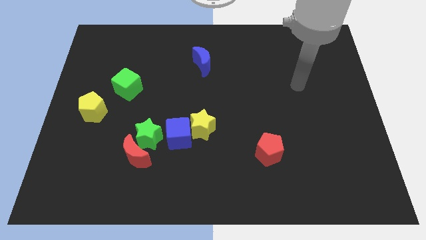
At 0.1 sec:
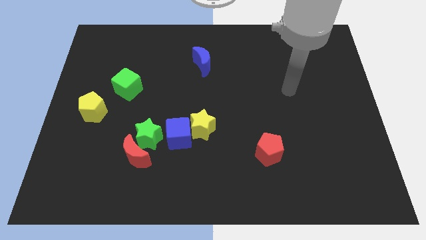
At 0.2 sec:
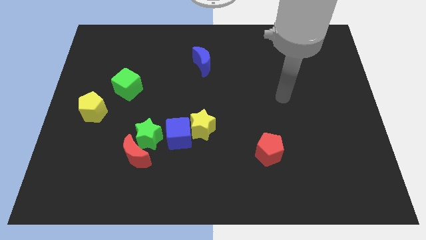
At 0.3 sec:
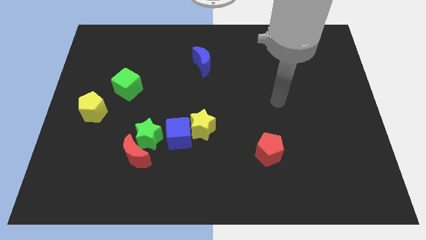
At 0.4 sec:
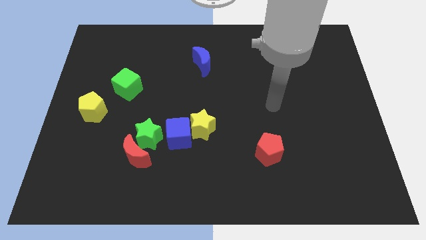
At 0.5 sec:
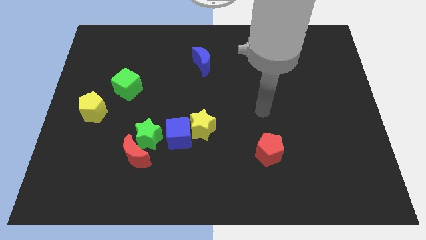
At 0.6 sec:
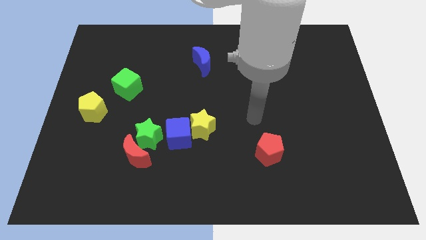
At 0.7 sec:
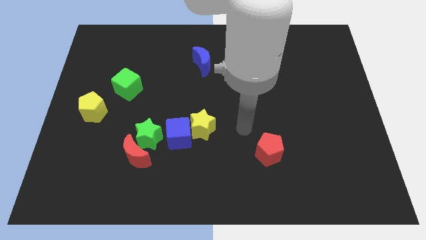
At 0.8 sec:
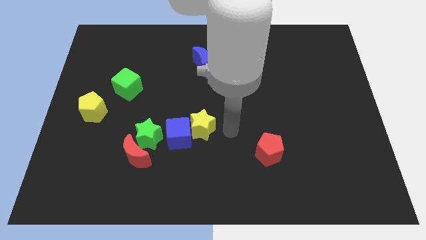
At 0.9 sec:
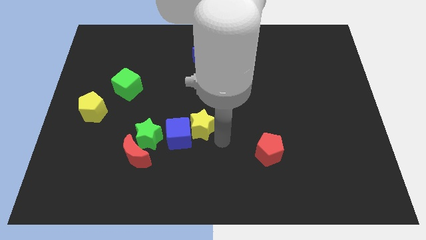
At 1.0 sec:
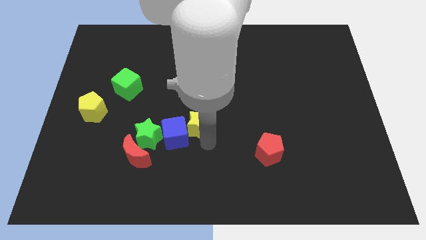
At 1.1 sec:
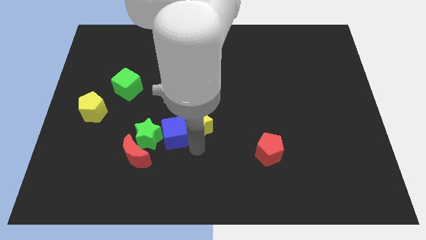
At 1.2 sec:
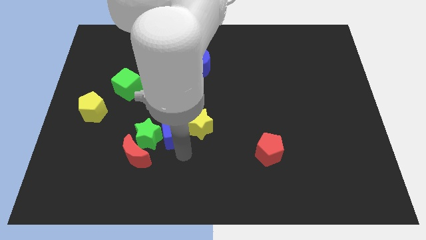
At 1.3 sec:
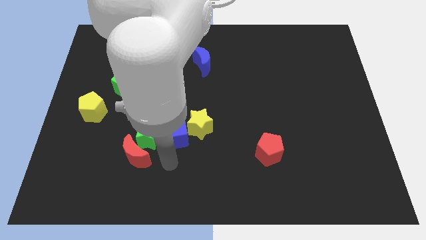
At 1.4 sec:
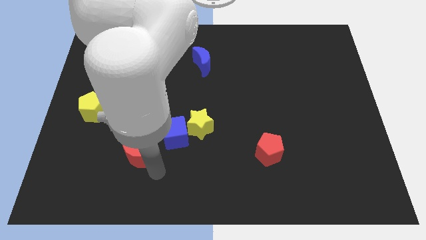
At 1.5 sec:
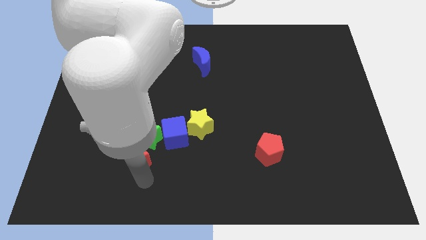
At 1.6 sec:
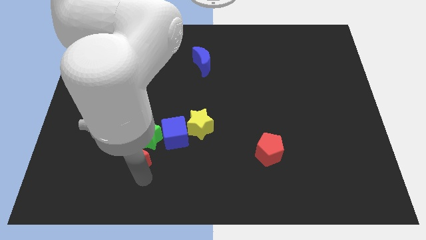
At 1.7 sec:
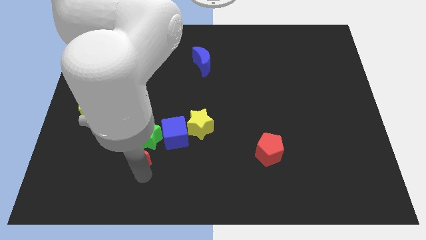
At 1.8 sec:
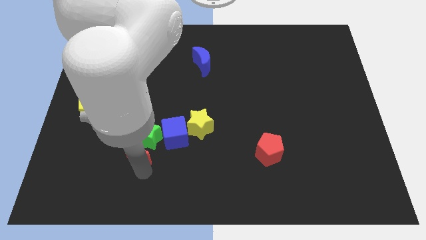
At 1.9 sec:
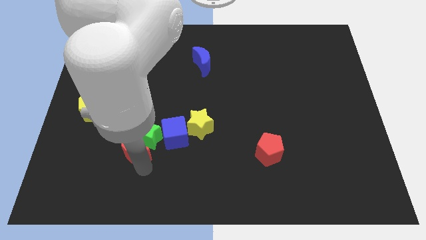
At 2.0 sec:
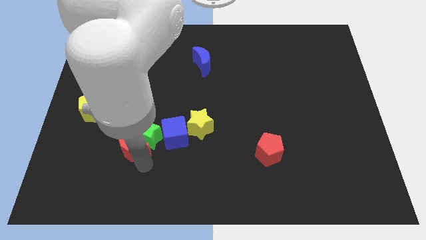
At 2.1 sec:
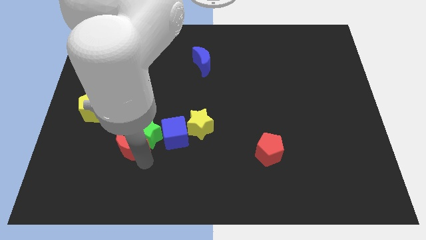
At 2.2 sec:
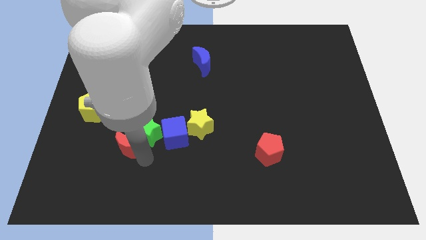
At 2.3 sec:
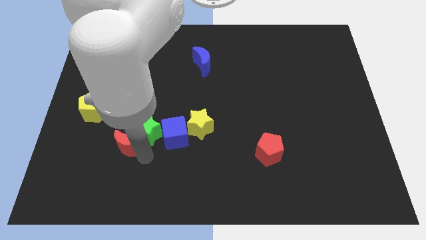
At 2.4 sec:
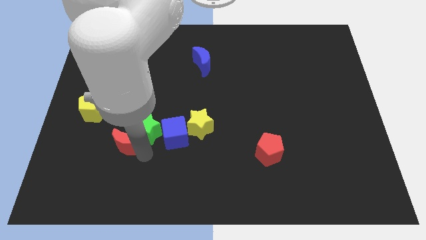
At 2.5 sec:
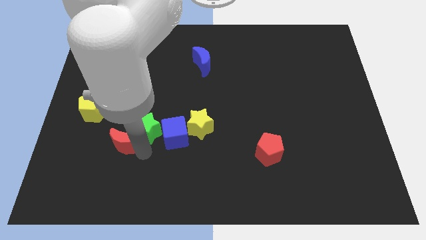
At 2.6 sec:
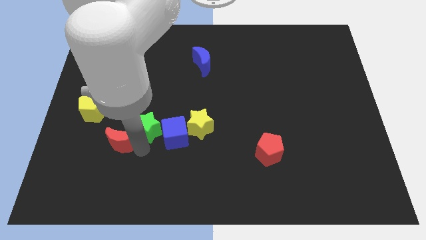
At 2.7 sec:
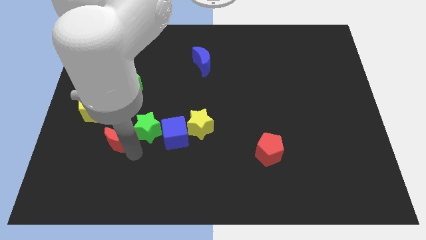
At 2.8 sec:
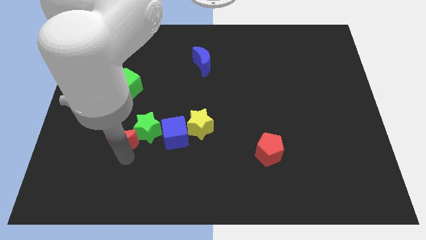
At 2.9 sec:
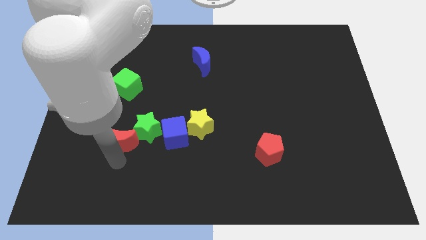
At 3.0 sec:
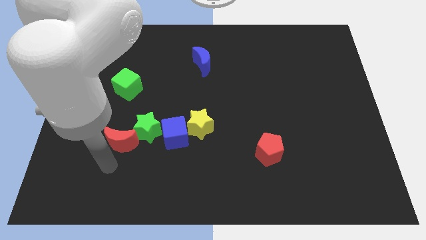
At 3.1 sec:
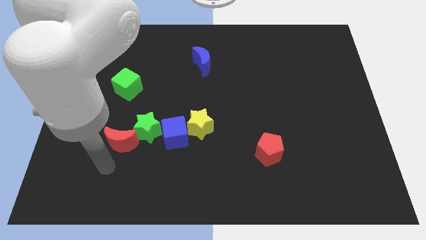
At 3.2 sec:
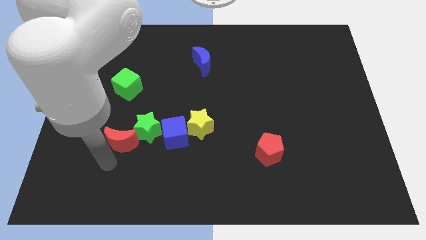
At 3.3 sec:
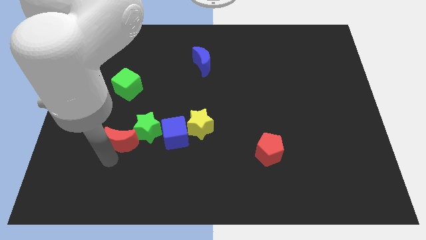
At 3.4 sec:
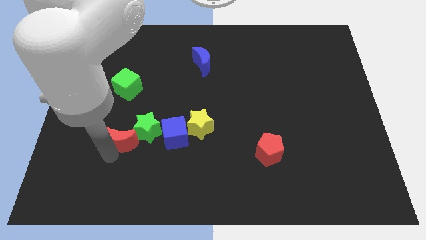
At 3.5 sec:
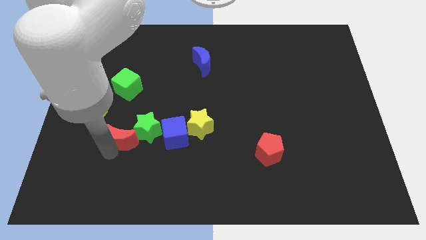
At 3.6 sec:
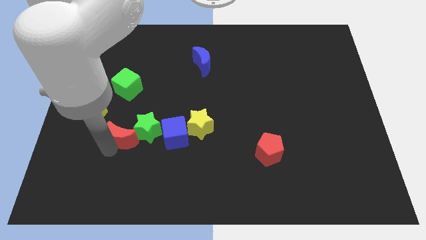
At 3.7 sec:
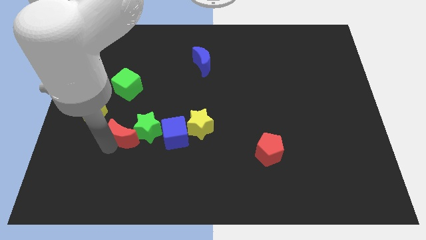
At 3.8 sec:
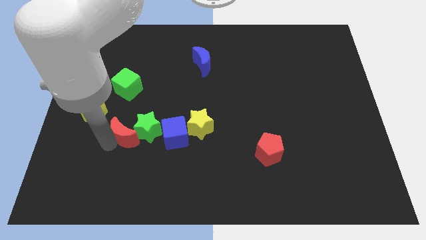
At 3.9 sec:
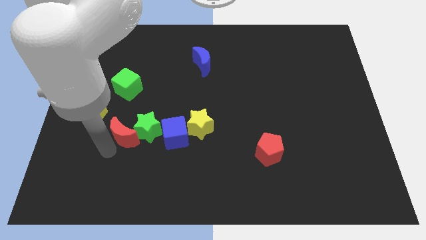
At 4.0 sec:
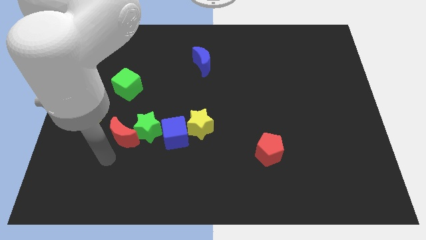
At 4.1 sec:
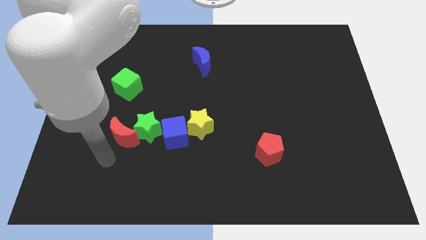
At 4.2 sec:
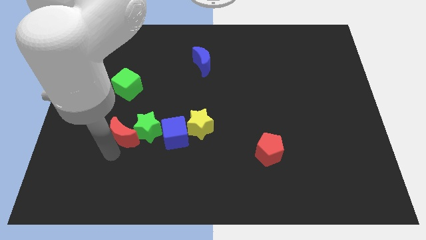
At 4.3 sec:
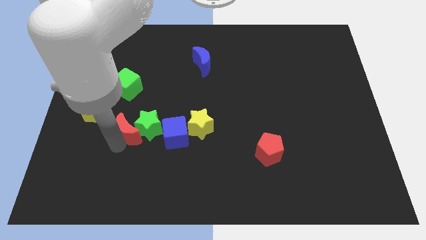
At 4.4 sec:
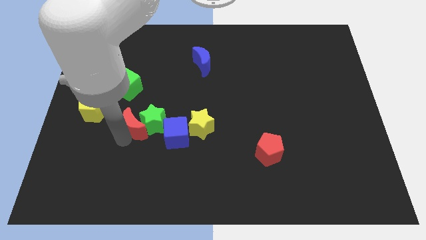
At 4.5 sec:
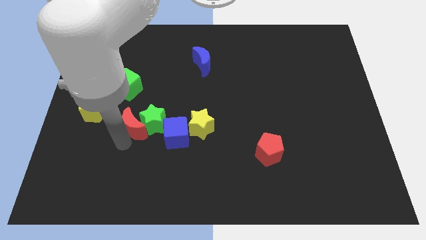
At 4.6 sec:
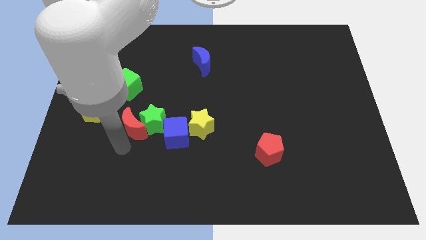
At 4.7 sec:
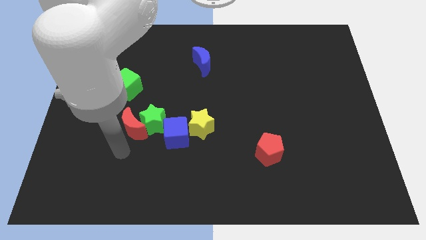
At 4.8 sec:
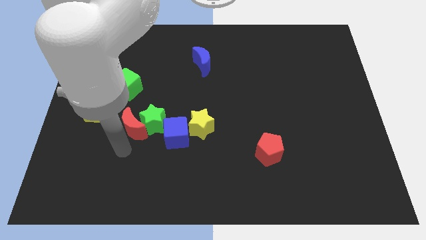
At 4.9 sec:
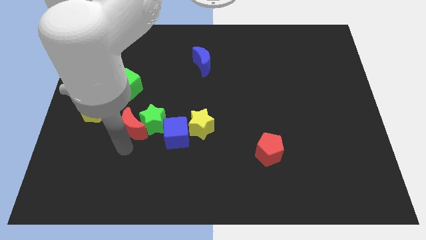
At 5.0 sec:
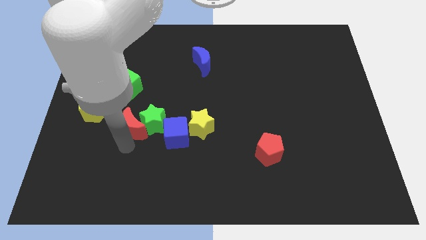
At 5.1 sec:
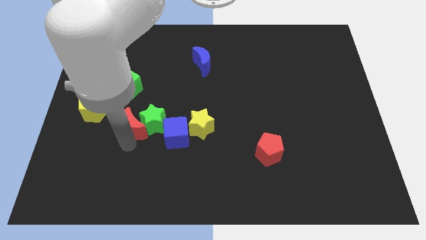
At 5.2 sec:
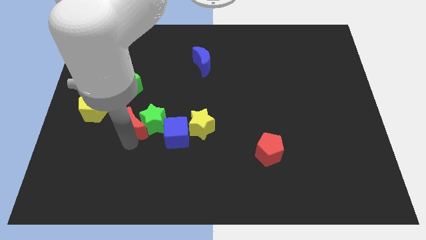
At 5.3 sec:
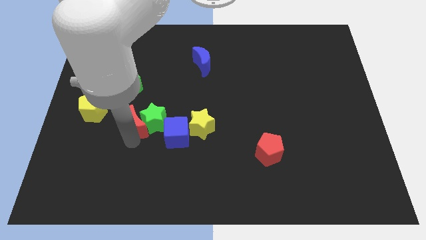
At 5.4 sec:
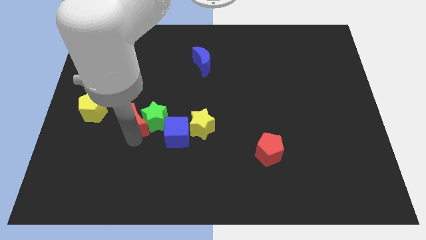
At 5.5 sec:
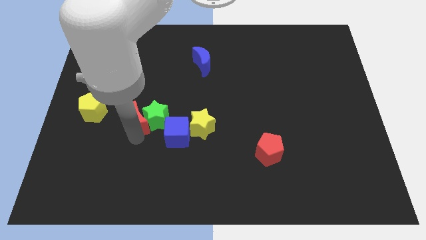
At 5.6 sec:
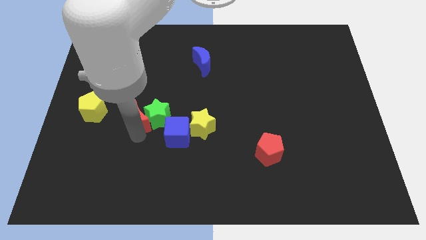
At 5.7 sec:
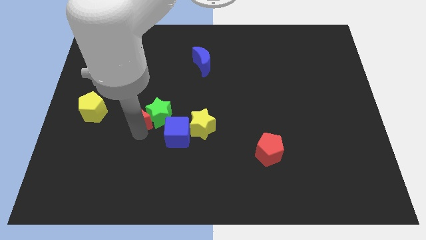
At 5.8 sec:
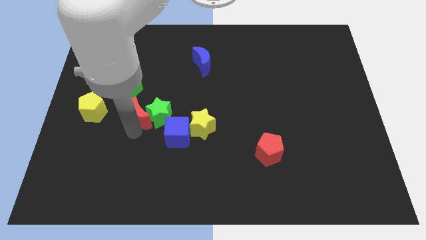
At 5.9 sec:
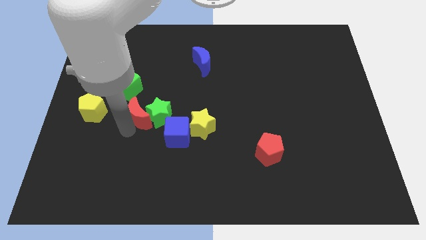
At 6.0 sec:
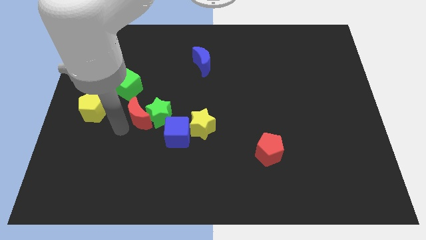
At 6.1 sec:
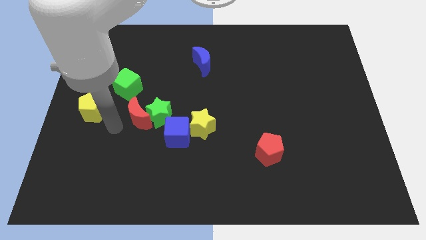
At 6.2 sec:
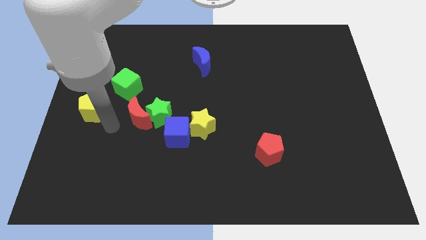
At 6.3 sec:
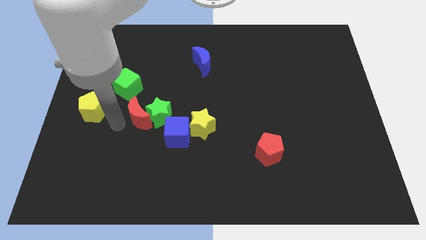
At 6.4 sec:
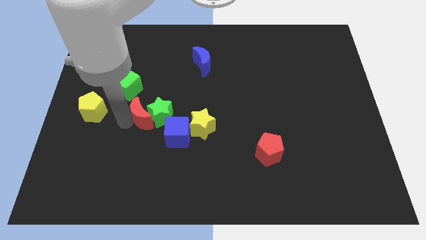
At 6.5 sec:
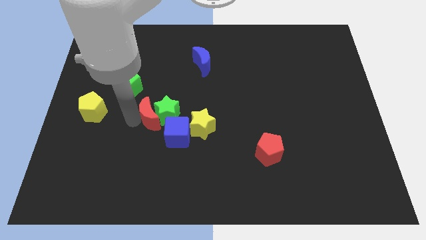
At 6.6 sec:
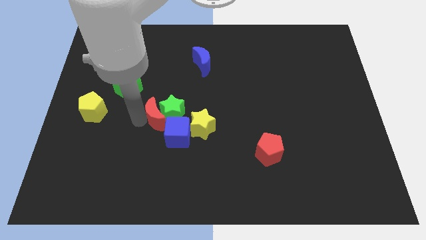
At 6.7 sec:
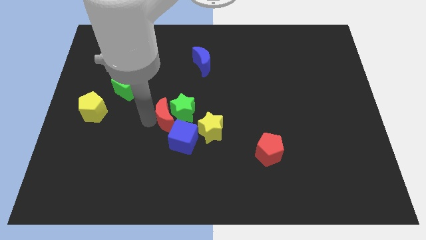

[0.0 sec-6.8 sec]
put the red moon to the center

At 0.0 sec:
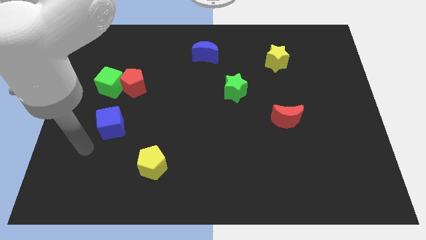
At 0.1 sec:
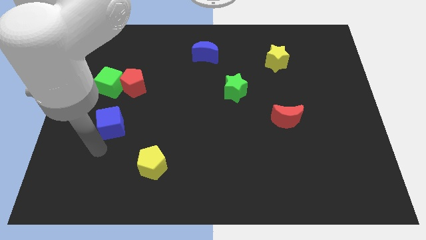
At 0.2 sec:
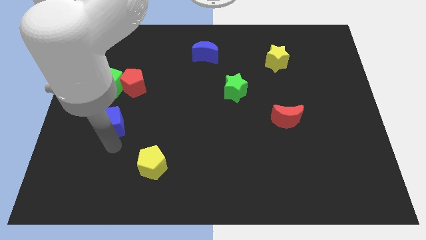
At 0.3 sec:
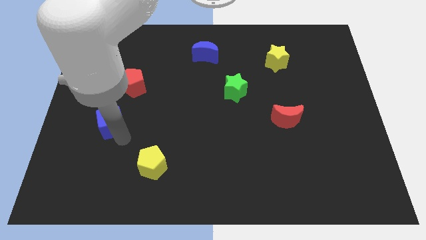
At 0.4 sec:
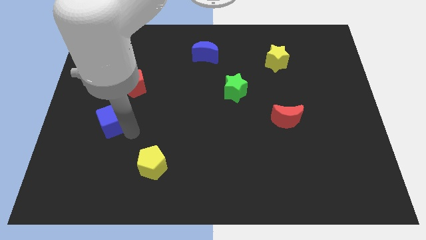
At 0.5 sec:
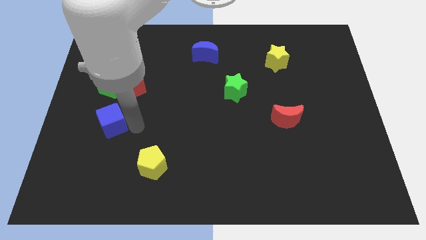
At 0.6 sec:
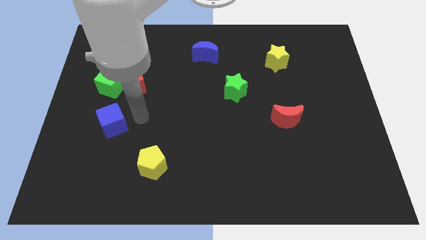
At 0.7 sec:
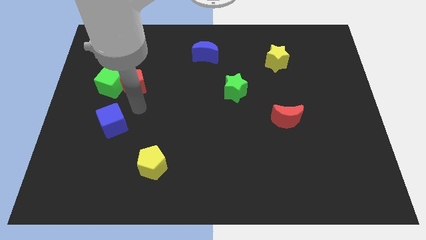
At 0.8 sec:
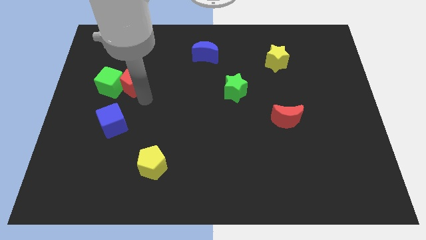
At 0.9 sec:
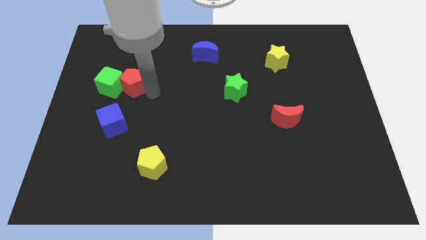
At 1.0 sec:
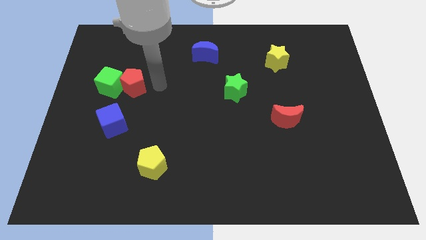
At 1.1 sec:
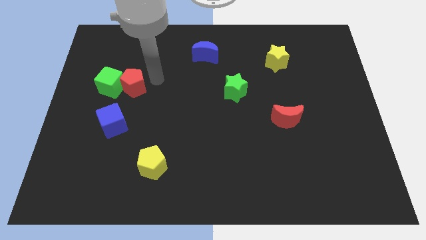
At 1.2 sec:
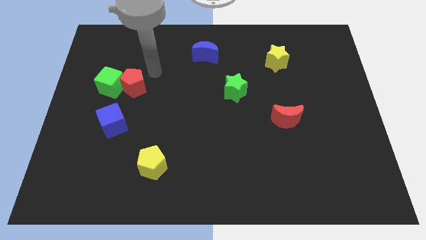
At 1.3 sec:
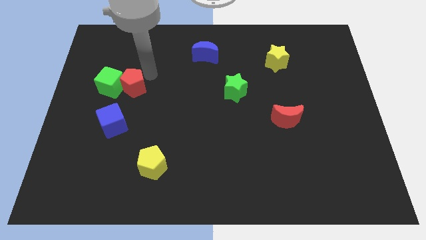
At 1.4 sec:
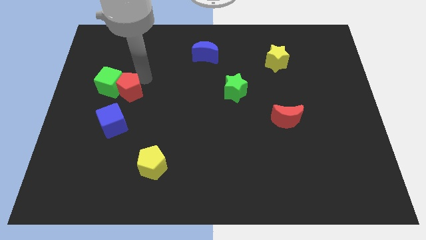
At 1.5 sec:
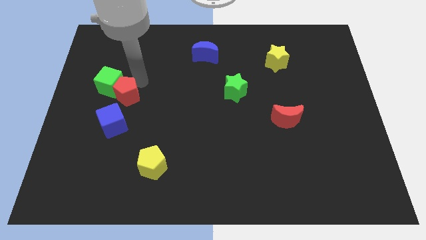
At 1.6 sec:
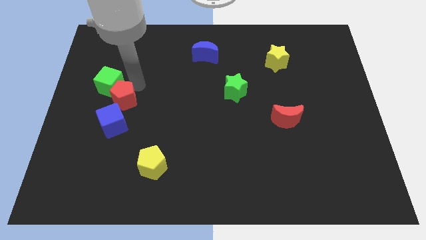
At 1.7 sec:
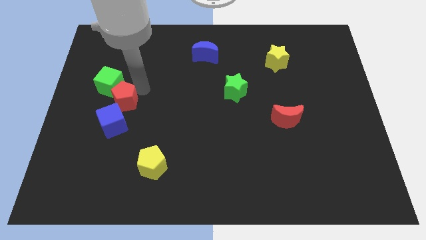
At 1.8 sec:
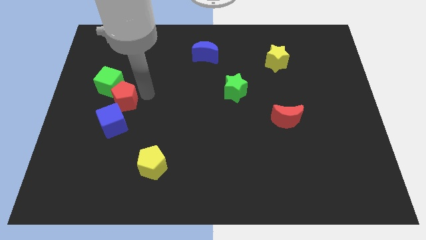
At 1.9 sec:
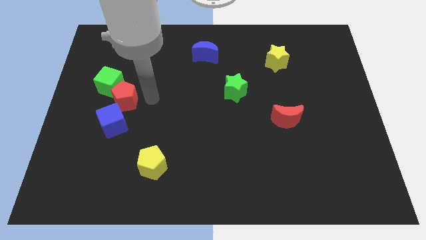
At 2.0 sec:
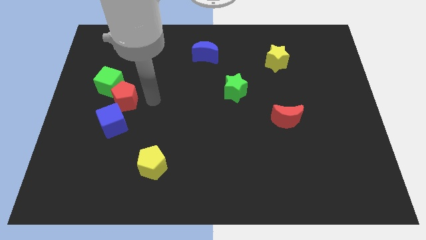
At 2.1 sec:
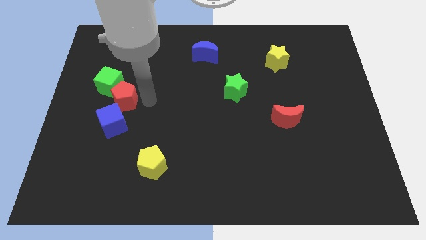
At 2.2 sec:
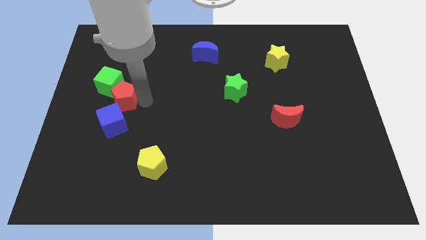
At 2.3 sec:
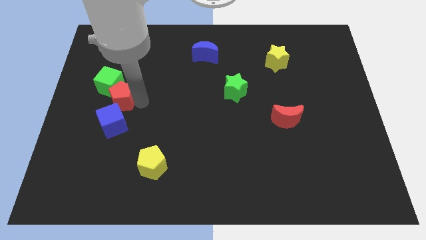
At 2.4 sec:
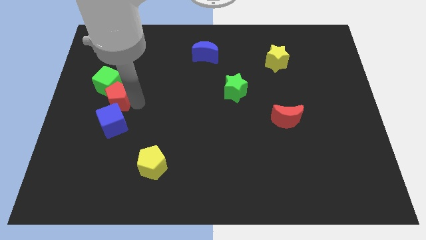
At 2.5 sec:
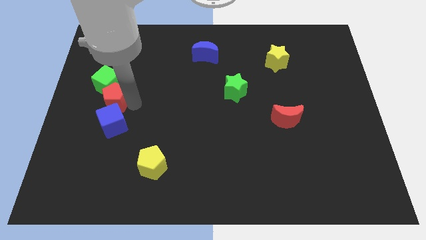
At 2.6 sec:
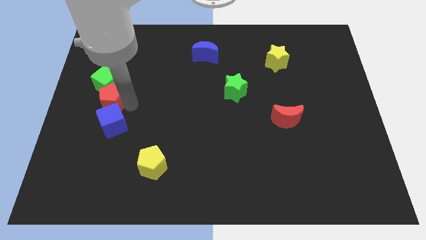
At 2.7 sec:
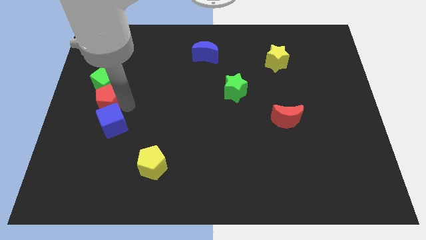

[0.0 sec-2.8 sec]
push the red pentagon to the left side
